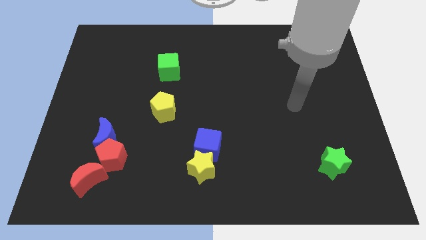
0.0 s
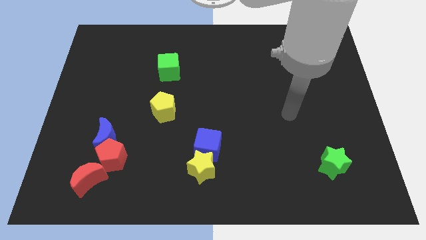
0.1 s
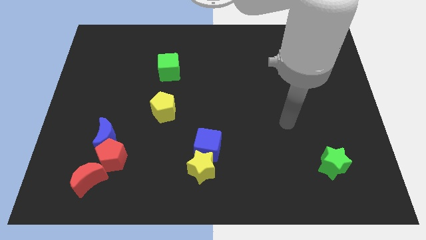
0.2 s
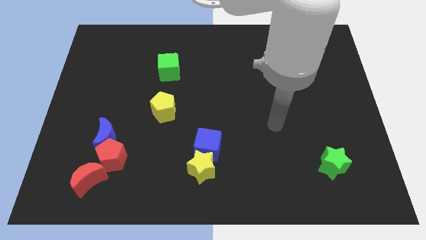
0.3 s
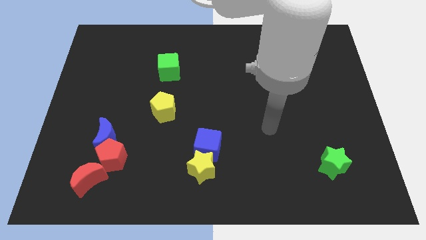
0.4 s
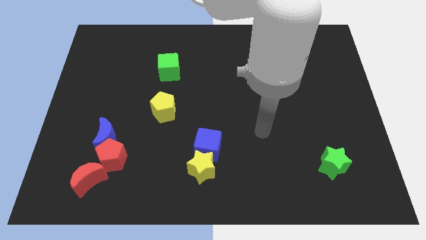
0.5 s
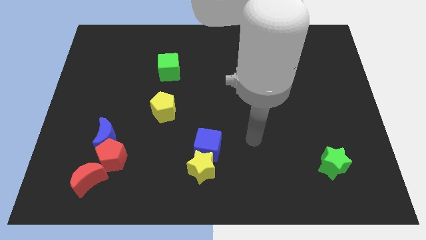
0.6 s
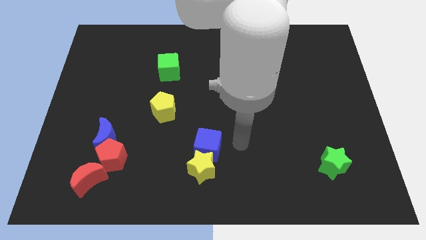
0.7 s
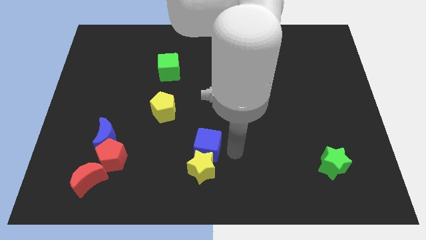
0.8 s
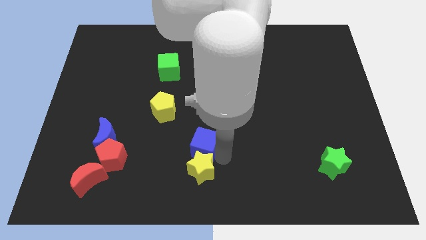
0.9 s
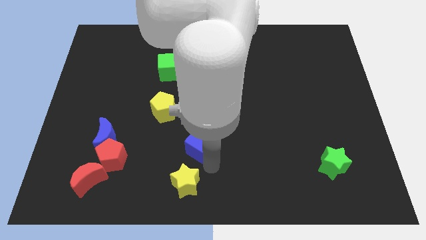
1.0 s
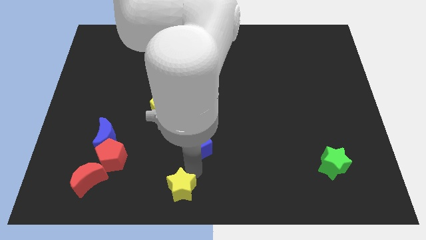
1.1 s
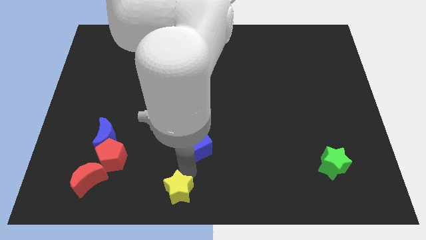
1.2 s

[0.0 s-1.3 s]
pull the blue cube apart from the yellow star

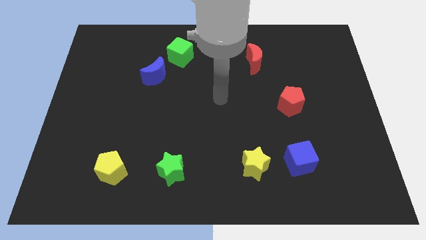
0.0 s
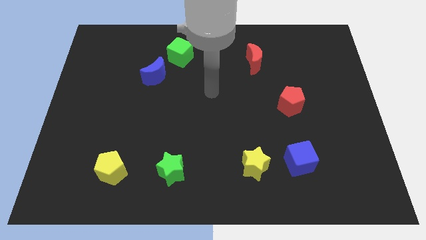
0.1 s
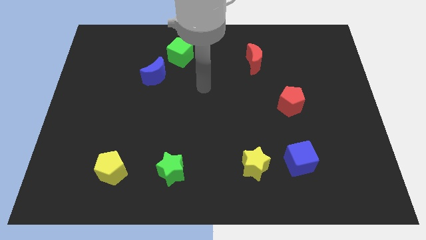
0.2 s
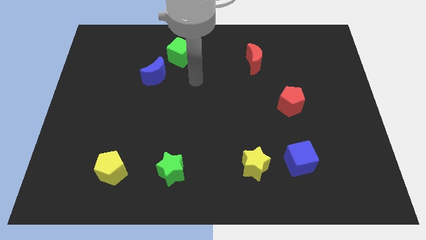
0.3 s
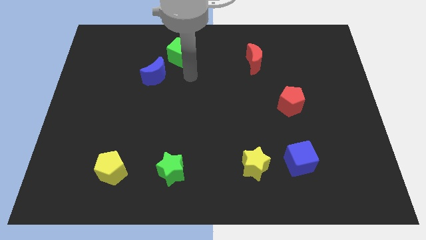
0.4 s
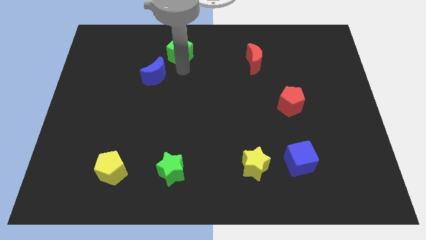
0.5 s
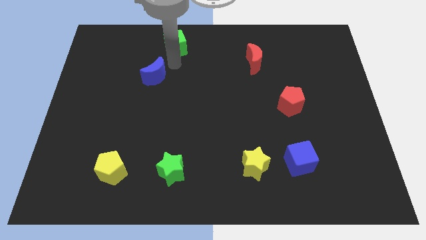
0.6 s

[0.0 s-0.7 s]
pull the blue moon apart from the green cube

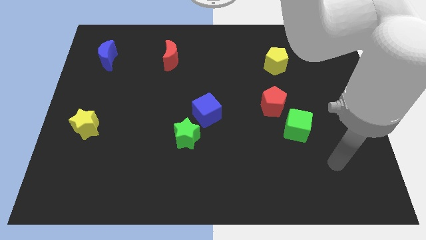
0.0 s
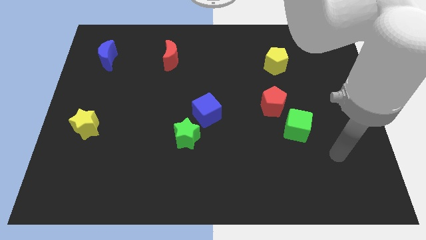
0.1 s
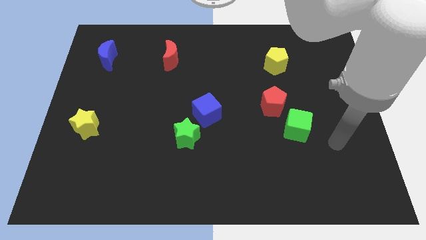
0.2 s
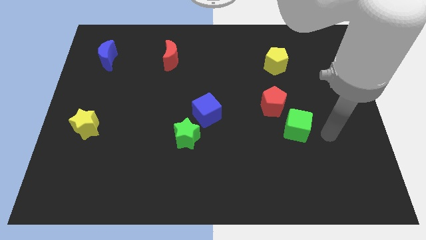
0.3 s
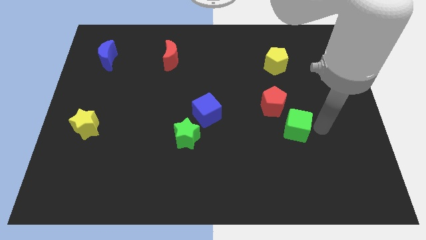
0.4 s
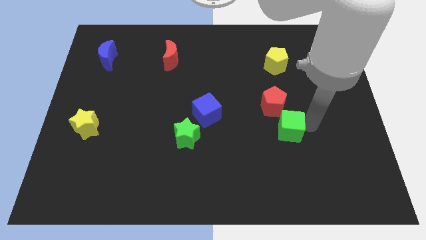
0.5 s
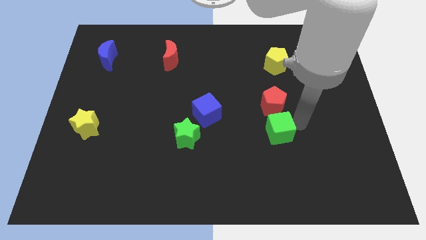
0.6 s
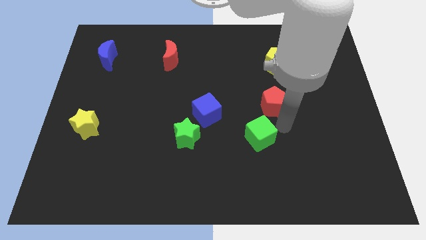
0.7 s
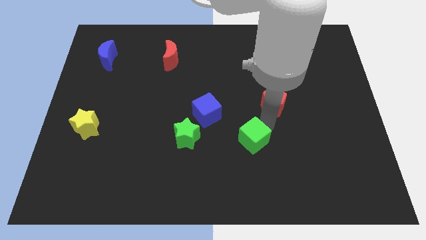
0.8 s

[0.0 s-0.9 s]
pull the red pentagon apart from the green cube

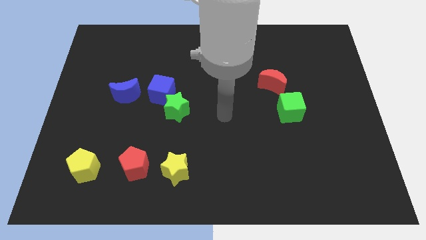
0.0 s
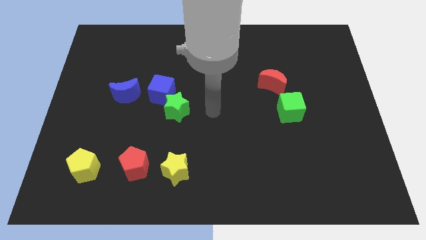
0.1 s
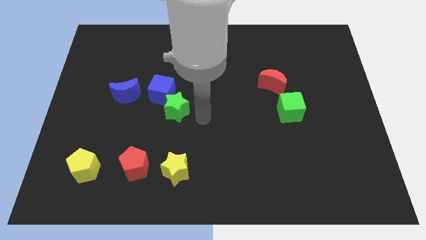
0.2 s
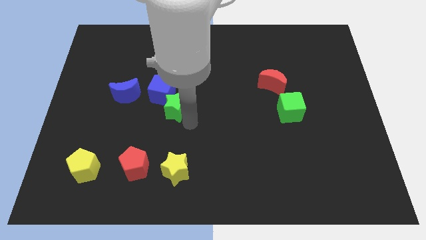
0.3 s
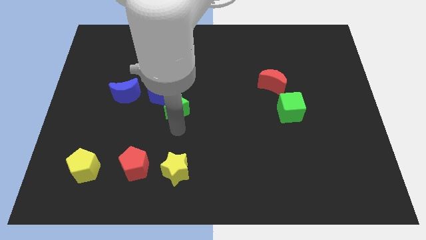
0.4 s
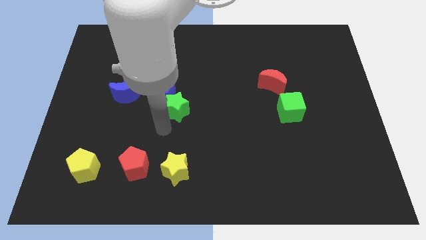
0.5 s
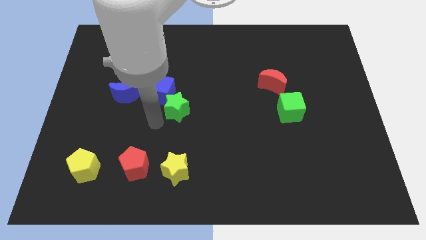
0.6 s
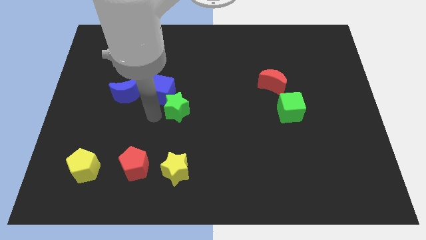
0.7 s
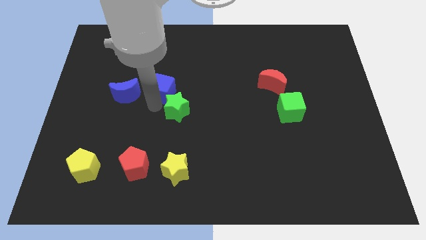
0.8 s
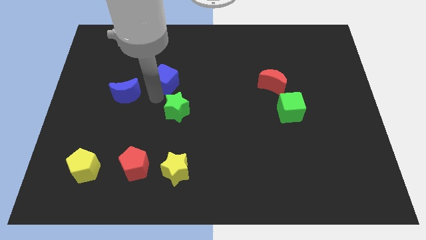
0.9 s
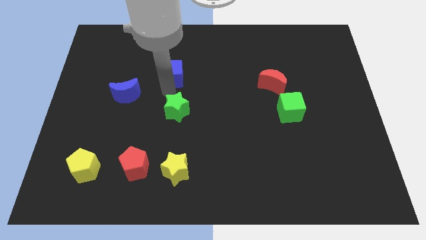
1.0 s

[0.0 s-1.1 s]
separate the green star from the blue cube

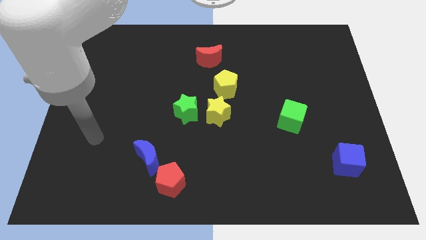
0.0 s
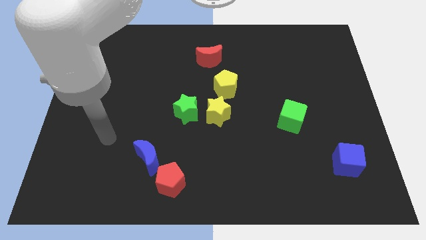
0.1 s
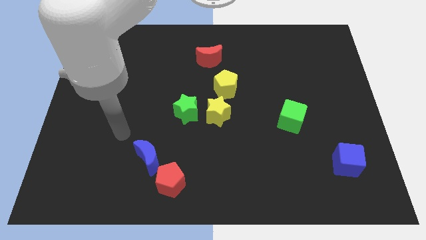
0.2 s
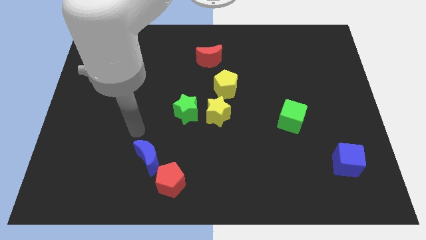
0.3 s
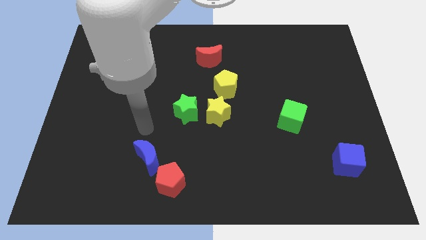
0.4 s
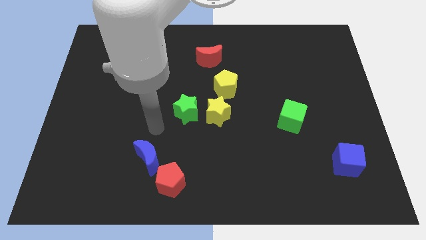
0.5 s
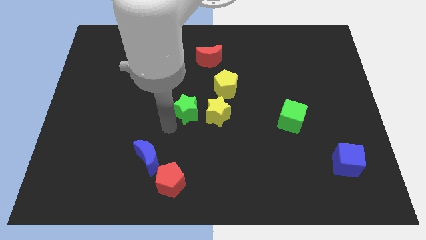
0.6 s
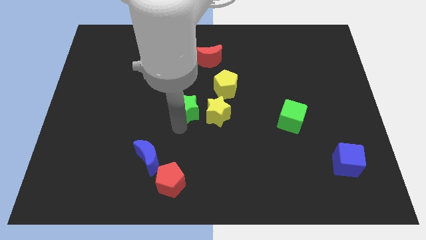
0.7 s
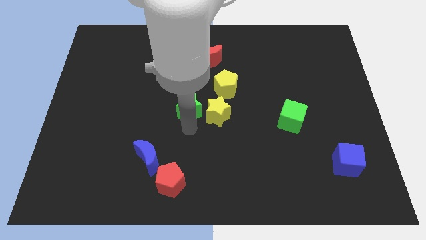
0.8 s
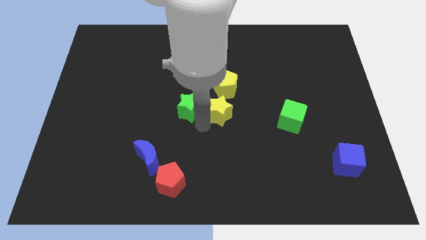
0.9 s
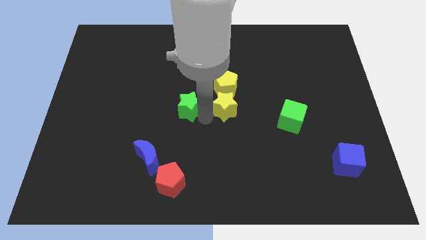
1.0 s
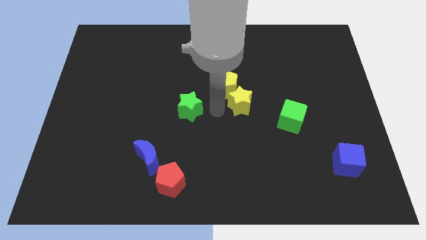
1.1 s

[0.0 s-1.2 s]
separate the green star from the yellow star

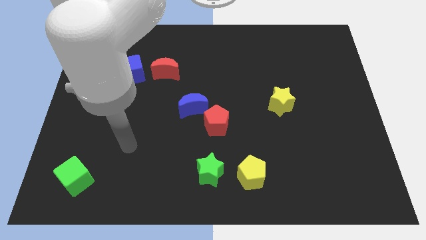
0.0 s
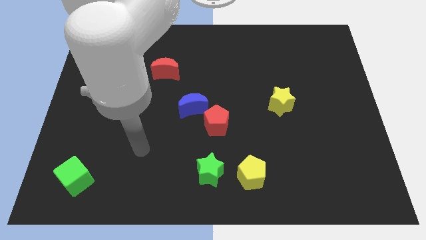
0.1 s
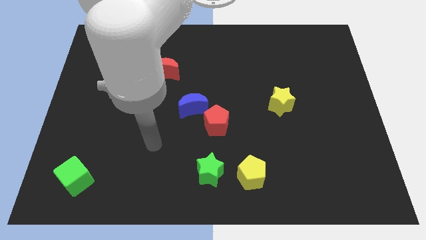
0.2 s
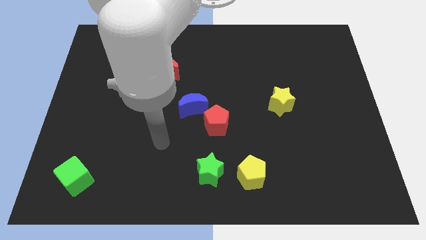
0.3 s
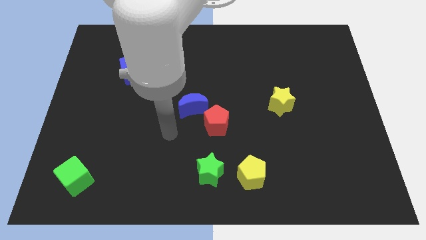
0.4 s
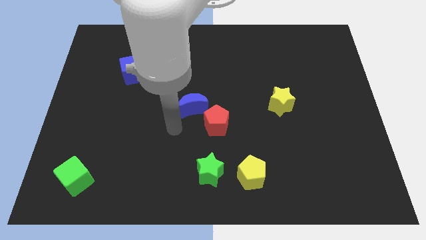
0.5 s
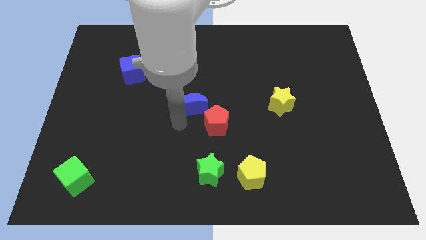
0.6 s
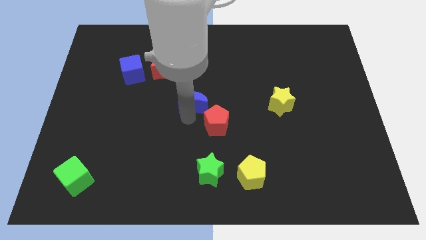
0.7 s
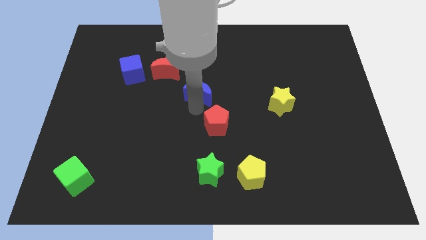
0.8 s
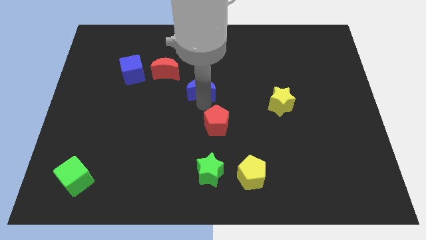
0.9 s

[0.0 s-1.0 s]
separate the red pentagon from the blue moon

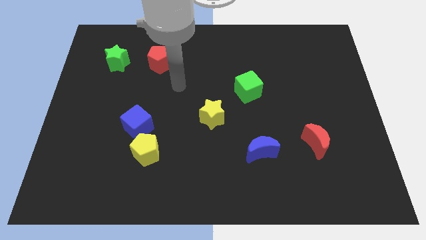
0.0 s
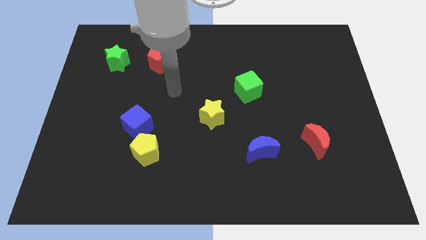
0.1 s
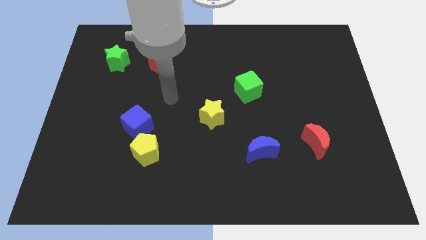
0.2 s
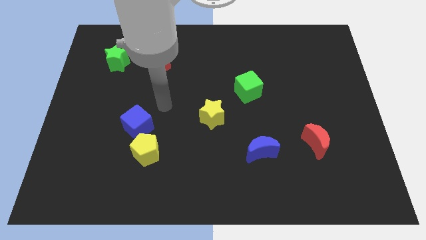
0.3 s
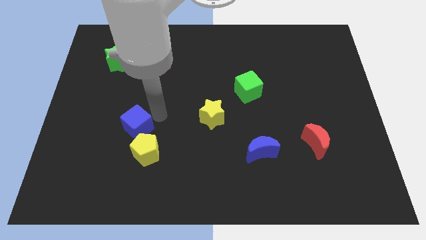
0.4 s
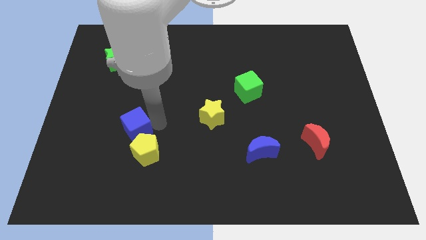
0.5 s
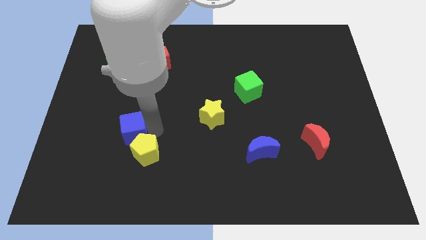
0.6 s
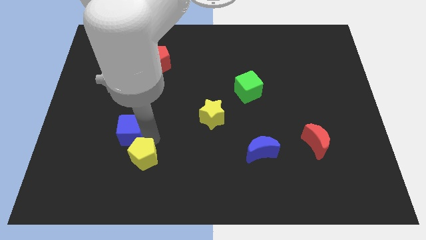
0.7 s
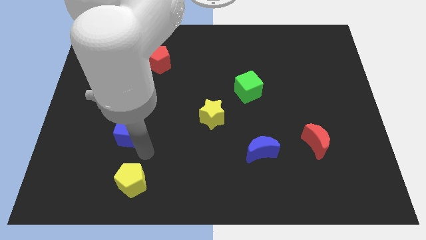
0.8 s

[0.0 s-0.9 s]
move the blue cube away from the yellow pentagon

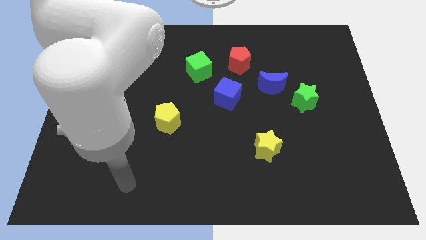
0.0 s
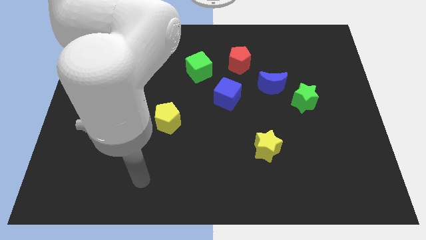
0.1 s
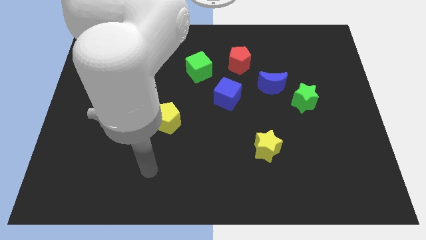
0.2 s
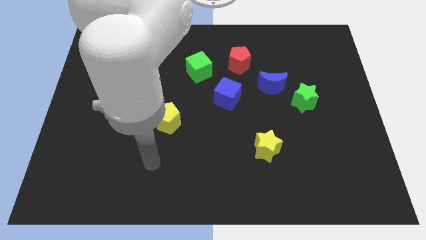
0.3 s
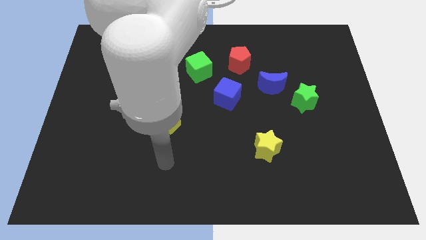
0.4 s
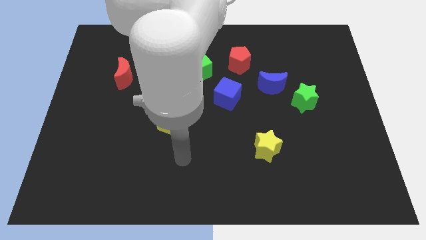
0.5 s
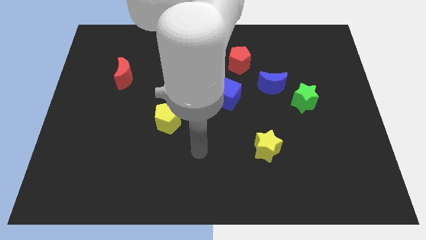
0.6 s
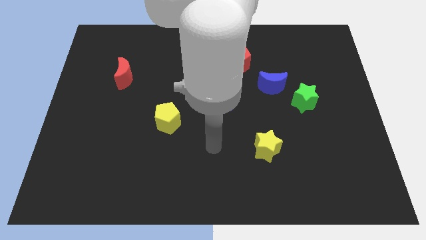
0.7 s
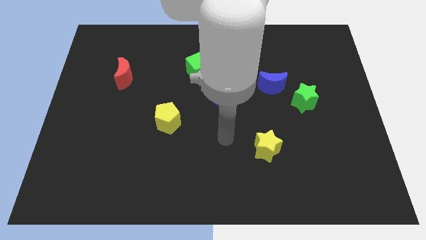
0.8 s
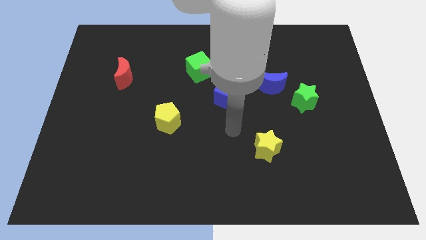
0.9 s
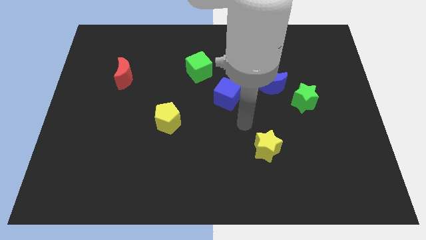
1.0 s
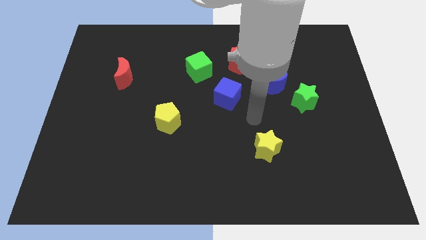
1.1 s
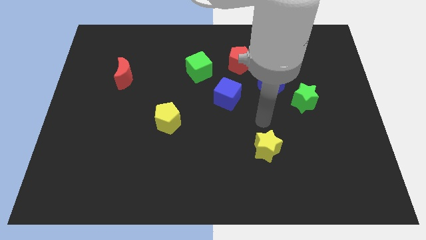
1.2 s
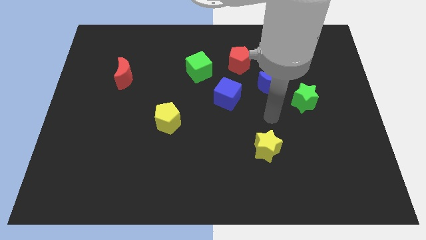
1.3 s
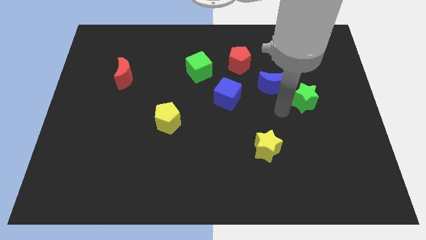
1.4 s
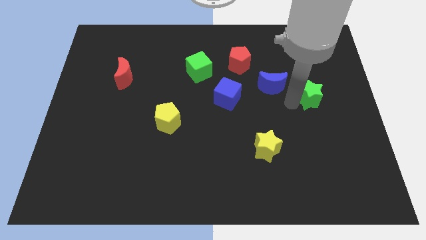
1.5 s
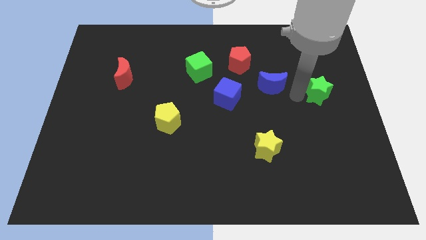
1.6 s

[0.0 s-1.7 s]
pull the blue moon apart from the green star

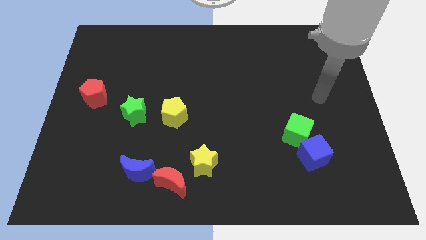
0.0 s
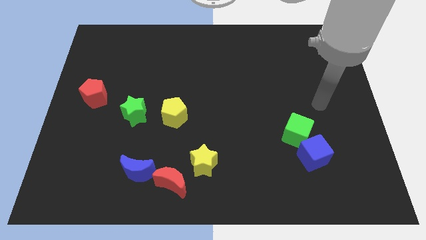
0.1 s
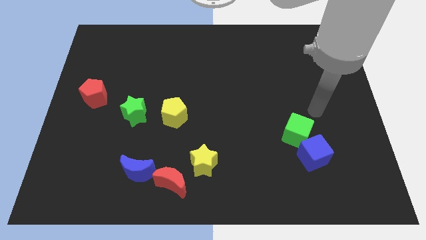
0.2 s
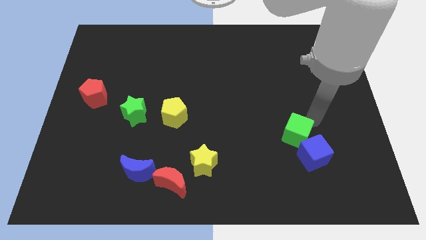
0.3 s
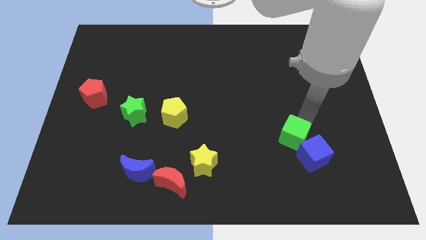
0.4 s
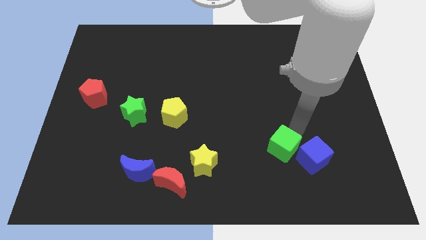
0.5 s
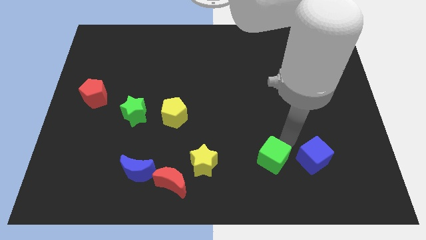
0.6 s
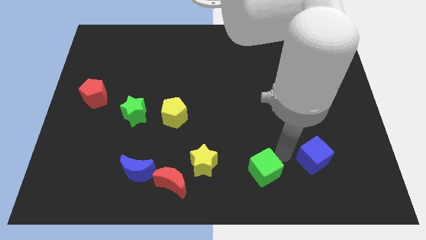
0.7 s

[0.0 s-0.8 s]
separate the blue cube from the green cube
